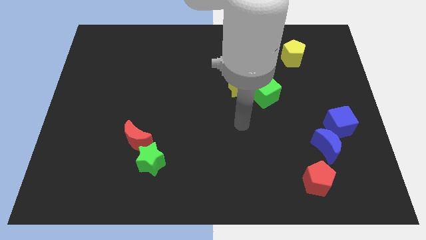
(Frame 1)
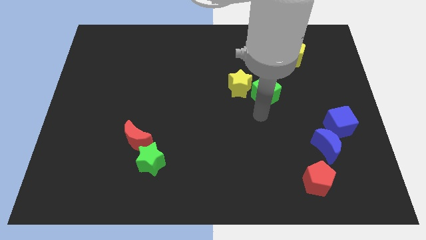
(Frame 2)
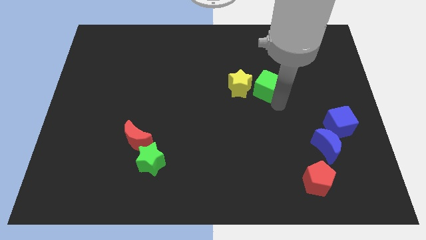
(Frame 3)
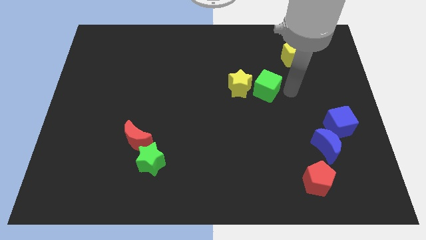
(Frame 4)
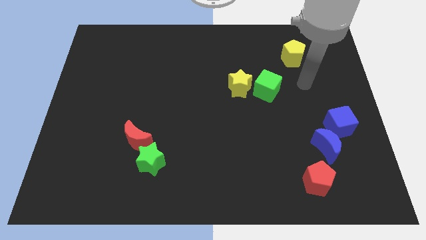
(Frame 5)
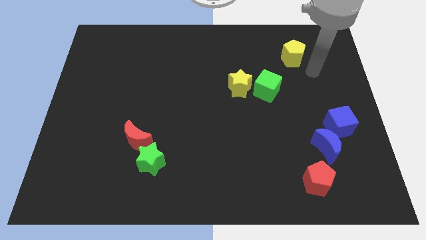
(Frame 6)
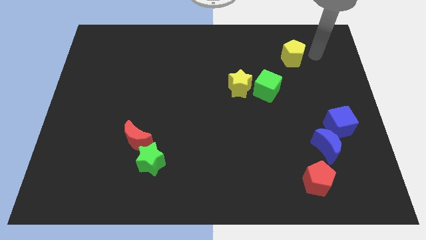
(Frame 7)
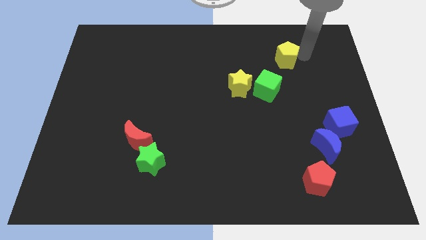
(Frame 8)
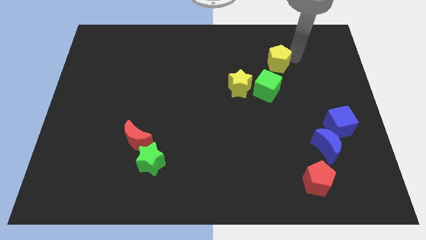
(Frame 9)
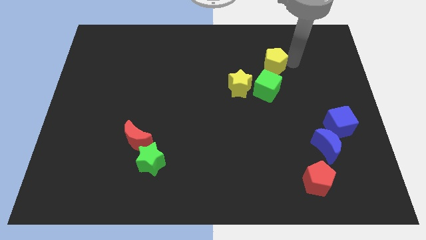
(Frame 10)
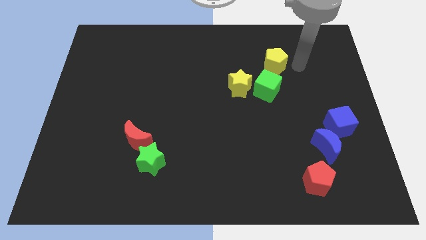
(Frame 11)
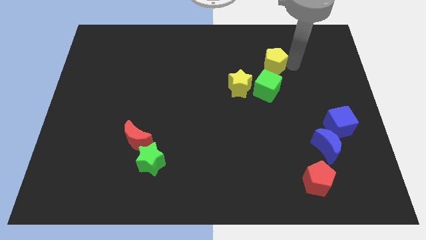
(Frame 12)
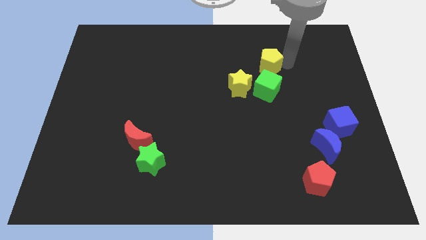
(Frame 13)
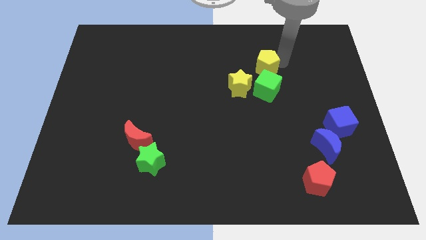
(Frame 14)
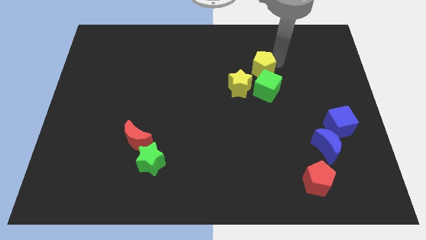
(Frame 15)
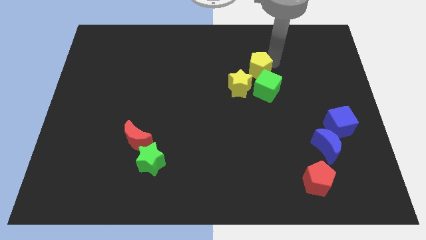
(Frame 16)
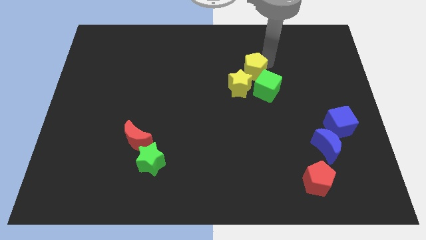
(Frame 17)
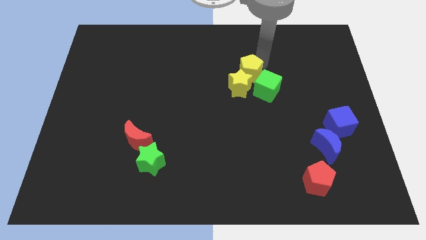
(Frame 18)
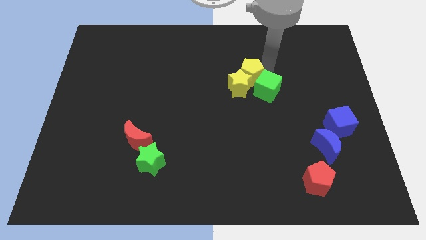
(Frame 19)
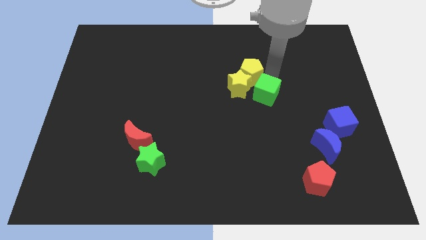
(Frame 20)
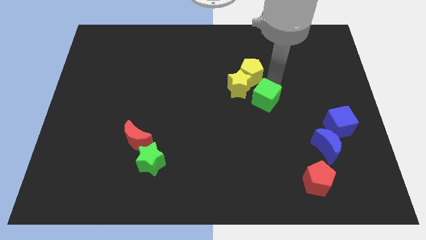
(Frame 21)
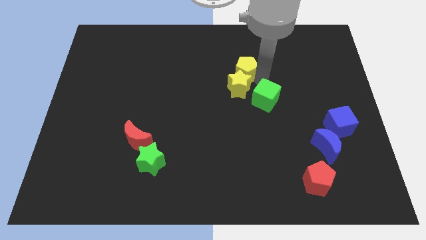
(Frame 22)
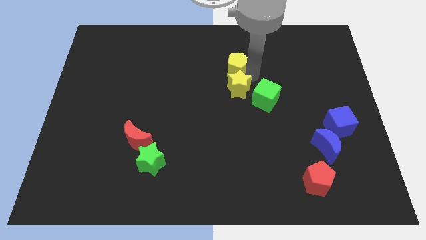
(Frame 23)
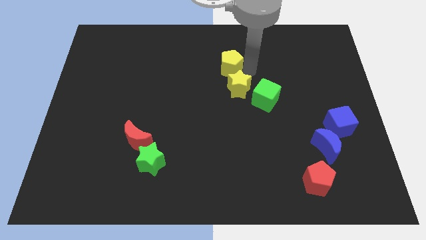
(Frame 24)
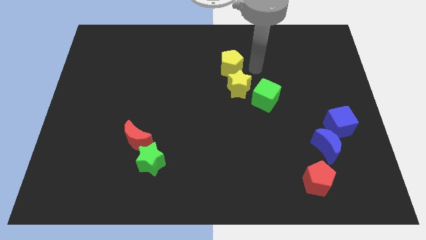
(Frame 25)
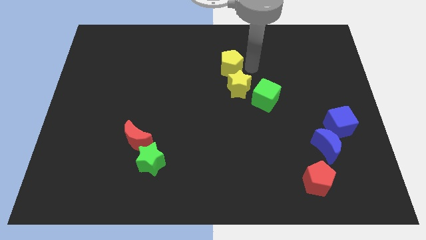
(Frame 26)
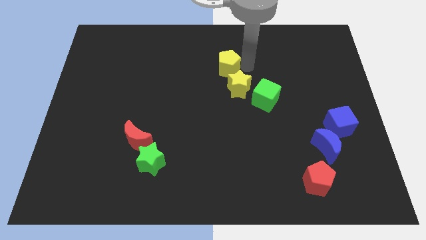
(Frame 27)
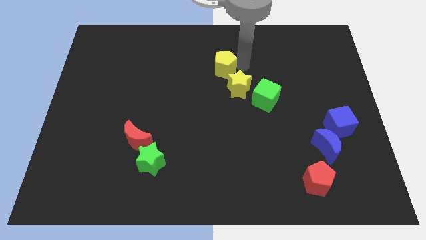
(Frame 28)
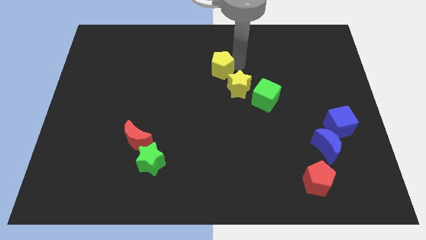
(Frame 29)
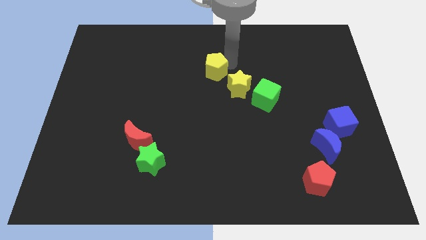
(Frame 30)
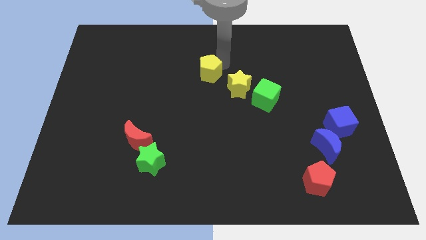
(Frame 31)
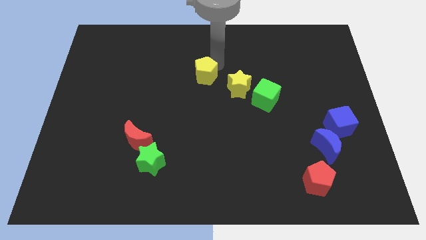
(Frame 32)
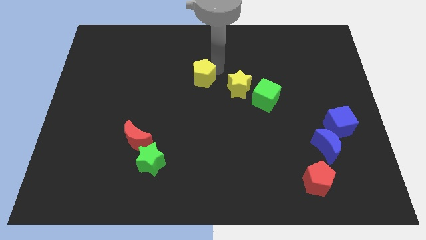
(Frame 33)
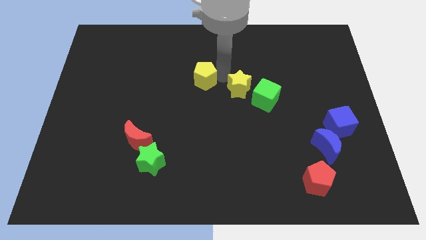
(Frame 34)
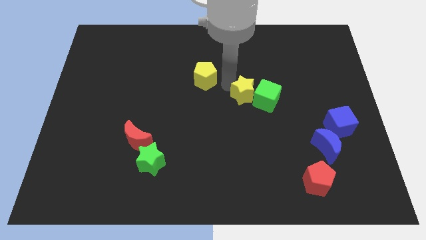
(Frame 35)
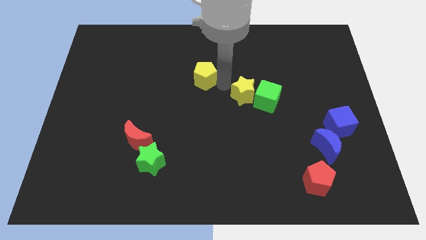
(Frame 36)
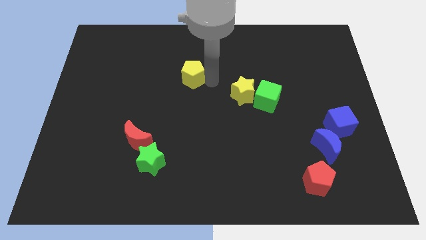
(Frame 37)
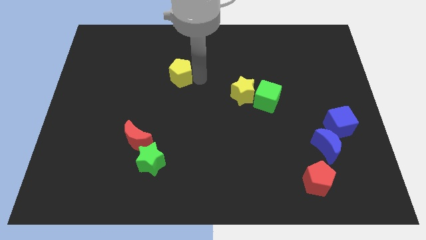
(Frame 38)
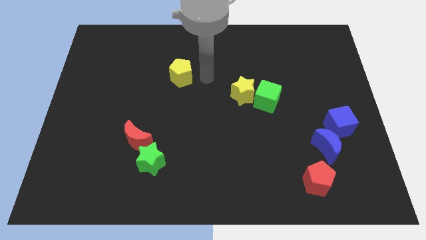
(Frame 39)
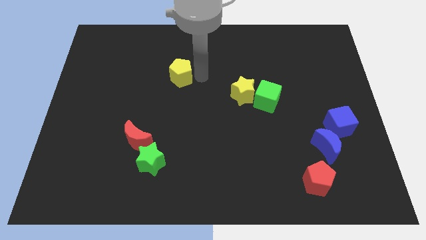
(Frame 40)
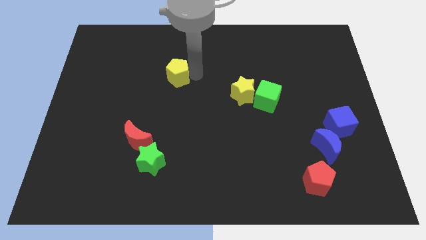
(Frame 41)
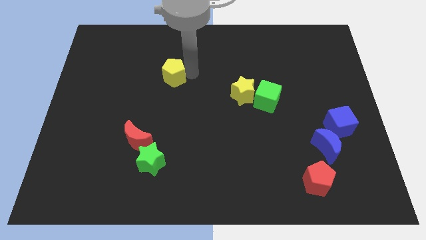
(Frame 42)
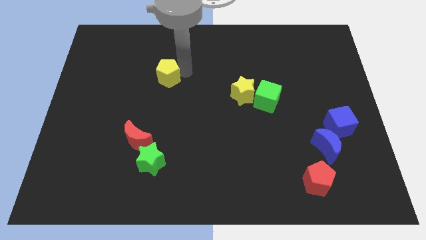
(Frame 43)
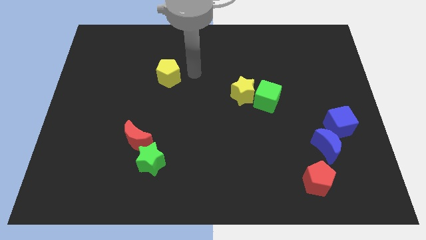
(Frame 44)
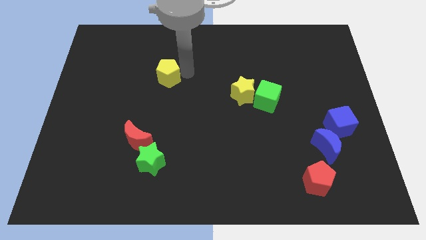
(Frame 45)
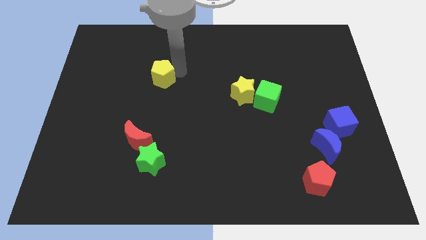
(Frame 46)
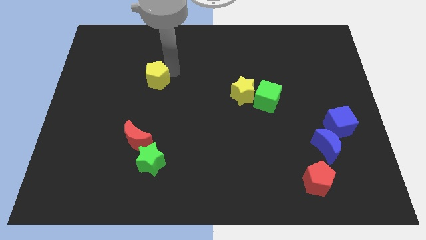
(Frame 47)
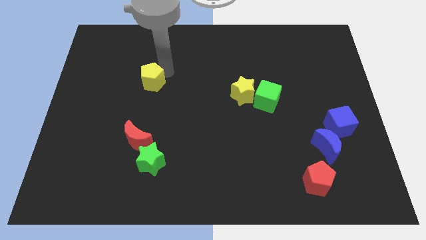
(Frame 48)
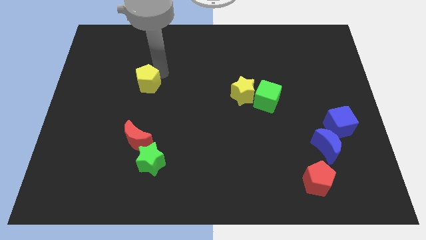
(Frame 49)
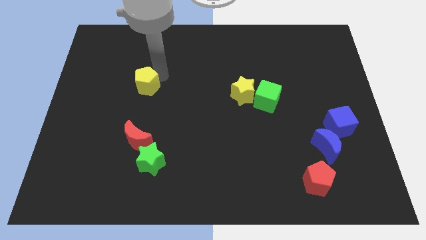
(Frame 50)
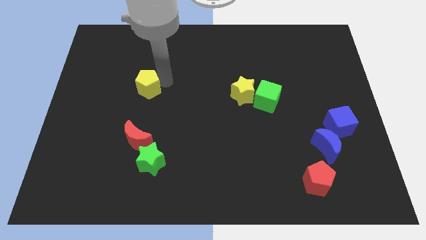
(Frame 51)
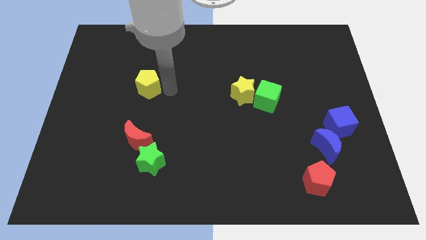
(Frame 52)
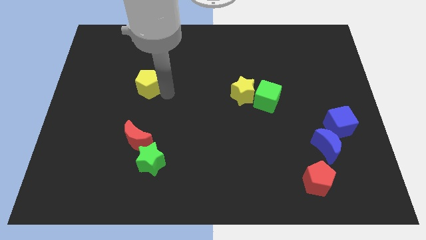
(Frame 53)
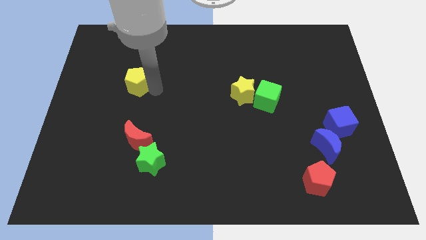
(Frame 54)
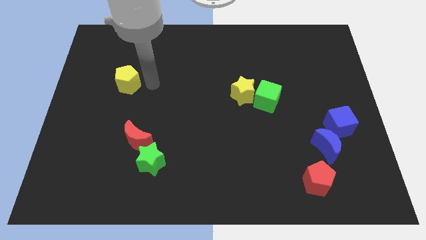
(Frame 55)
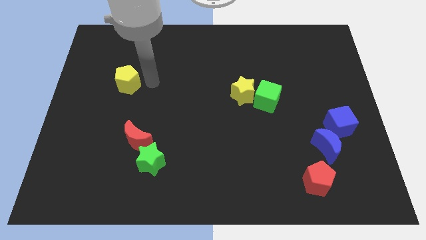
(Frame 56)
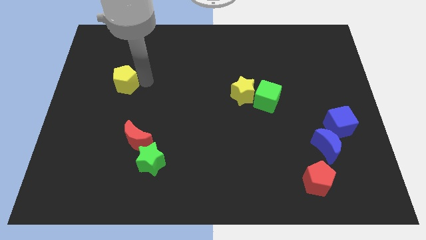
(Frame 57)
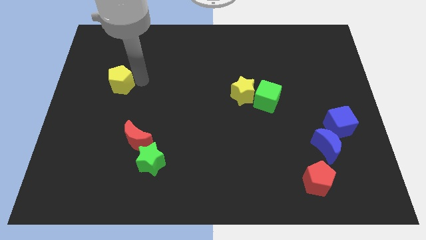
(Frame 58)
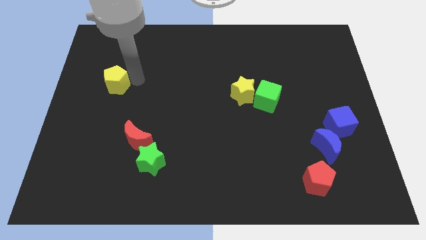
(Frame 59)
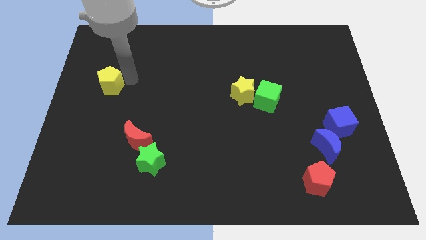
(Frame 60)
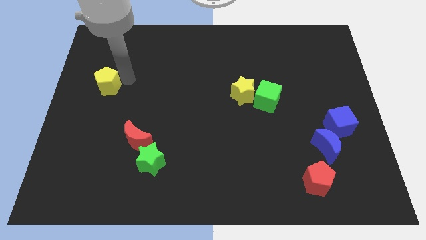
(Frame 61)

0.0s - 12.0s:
slide the yellow pentagon to the left side

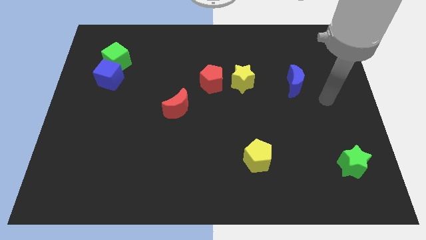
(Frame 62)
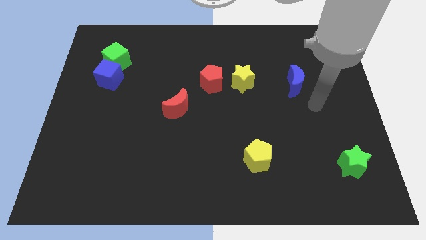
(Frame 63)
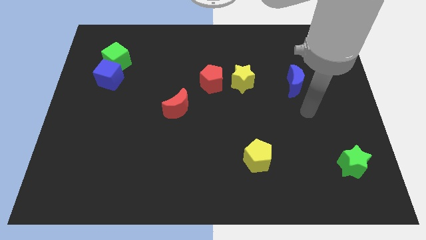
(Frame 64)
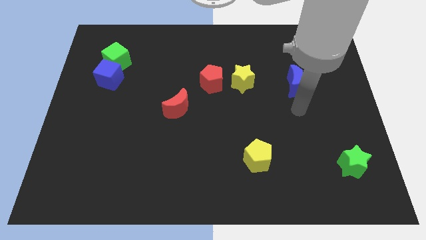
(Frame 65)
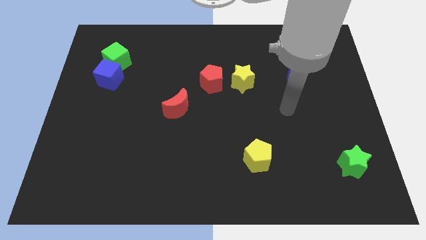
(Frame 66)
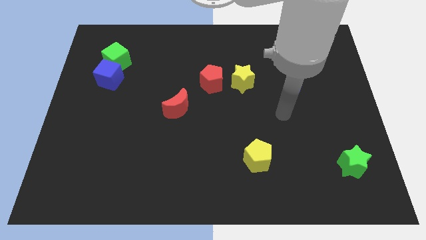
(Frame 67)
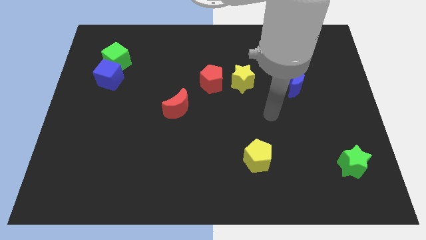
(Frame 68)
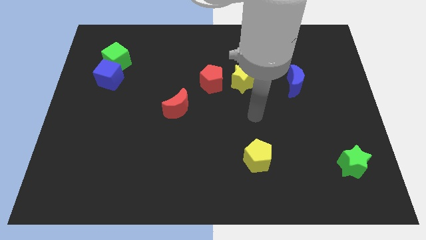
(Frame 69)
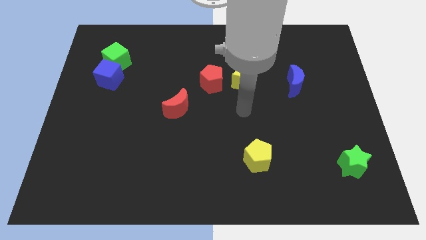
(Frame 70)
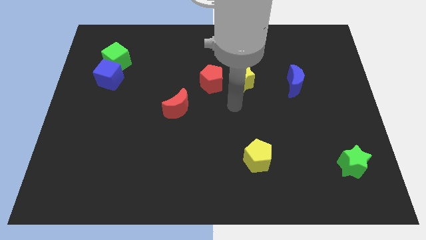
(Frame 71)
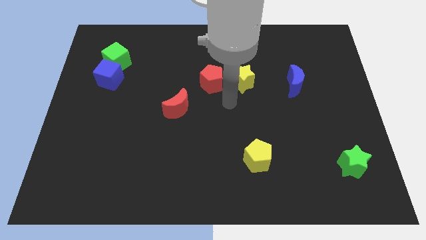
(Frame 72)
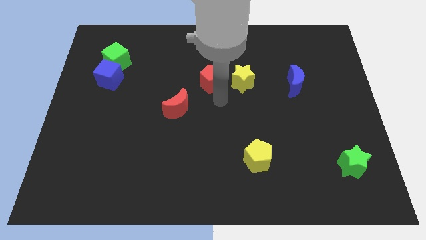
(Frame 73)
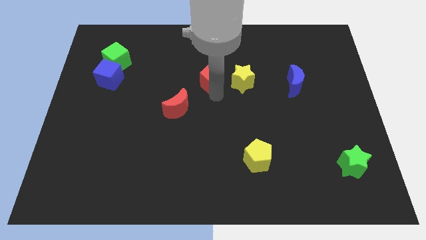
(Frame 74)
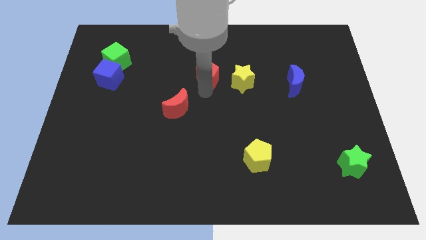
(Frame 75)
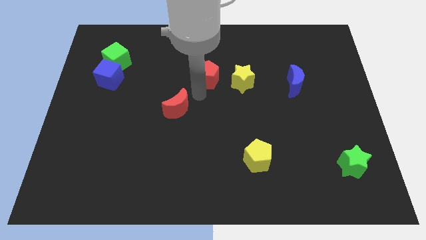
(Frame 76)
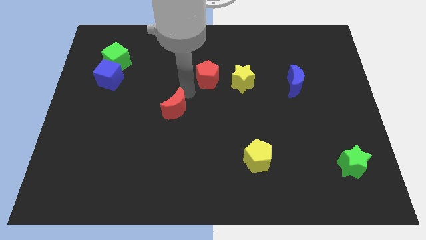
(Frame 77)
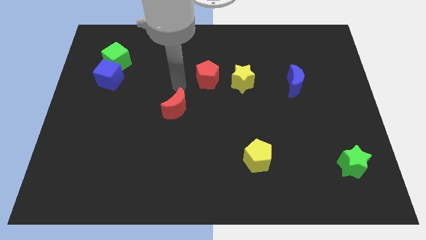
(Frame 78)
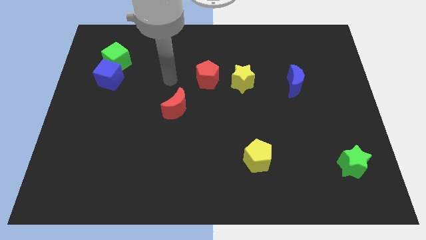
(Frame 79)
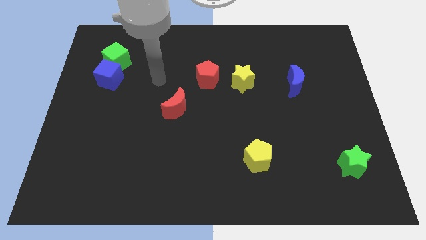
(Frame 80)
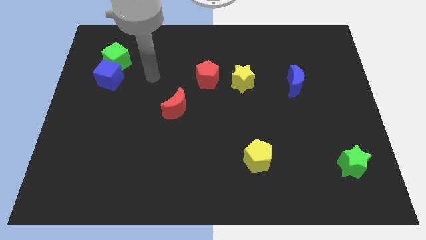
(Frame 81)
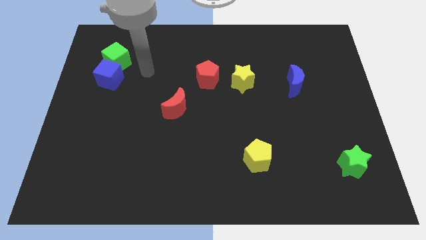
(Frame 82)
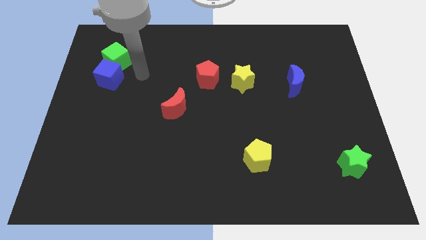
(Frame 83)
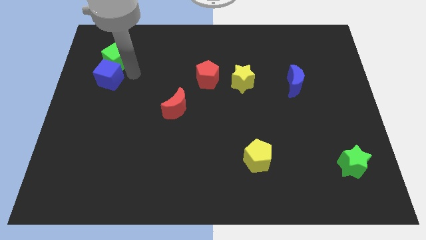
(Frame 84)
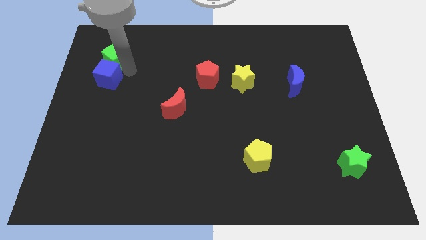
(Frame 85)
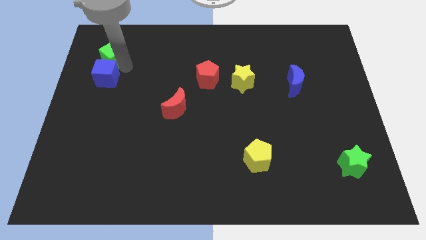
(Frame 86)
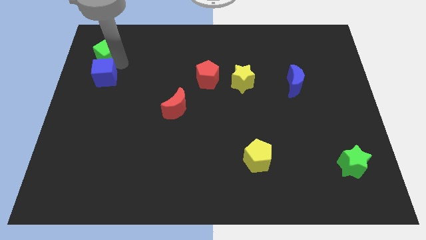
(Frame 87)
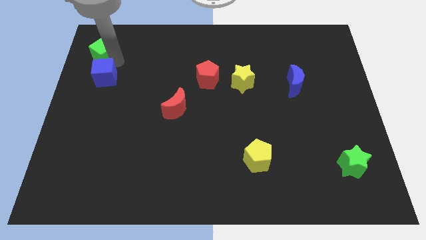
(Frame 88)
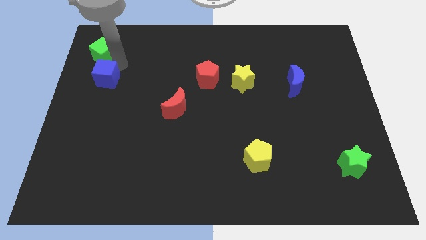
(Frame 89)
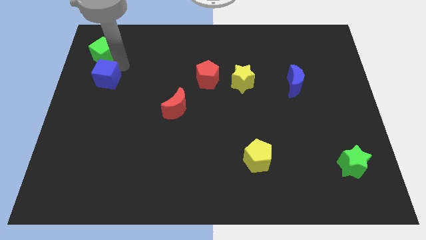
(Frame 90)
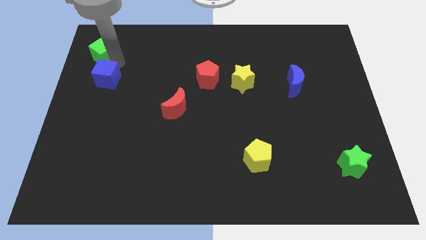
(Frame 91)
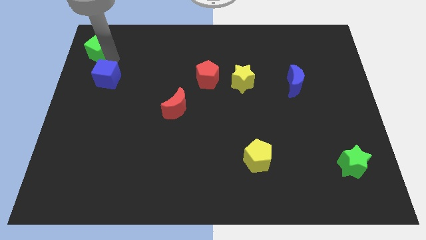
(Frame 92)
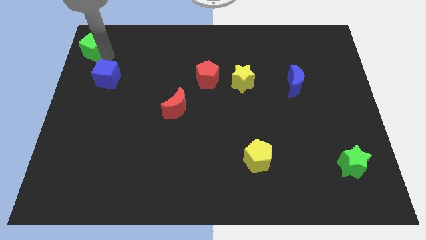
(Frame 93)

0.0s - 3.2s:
put the green cube to the top left corner
